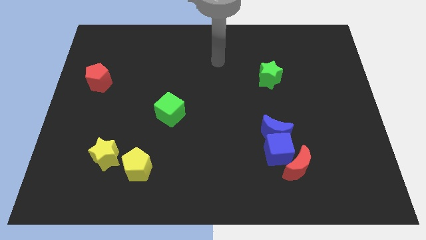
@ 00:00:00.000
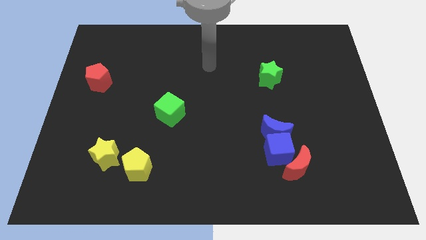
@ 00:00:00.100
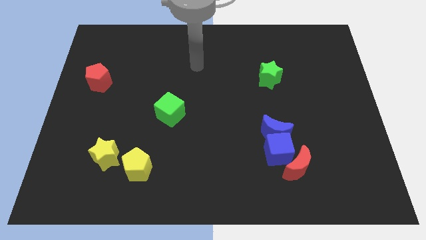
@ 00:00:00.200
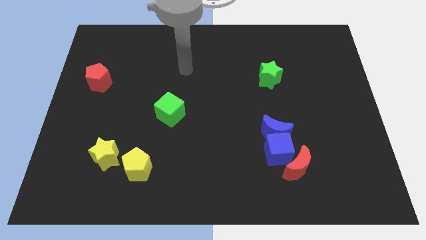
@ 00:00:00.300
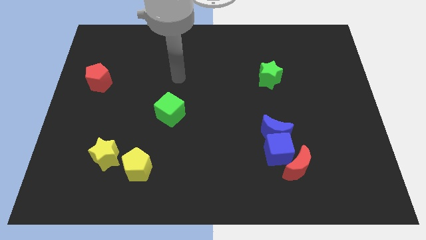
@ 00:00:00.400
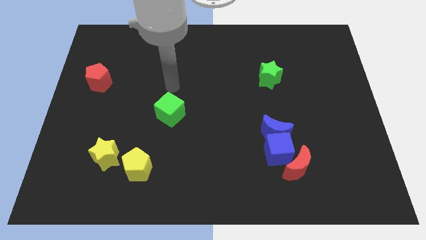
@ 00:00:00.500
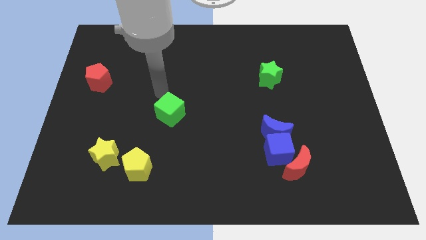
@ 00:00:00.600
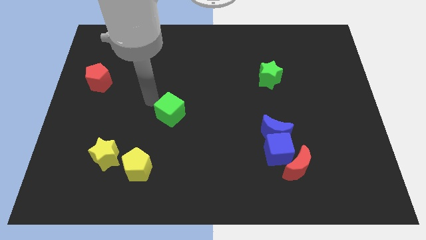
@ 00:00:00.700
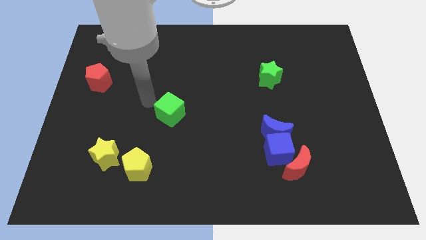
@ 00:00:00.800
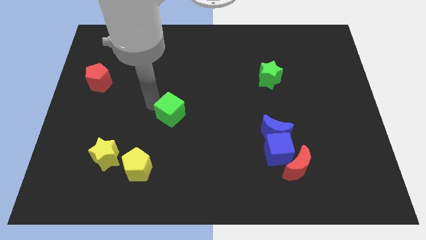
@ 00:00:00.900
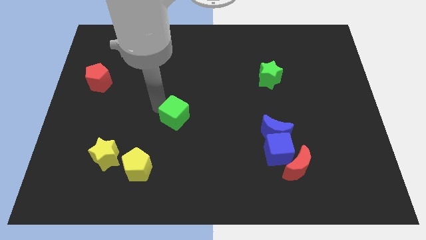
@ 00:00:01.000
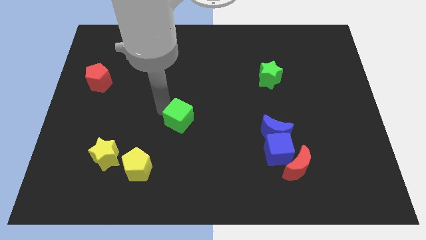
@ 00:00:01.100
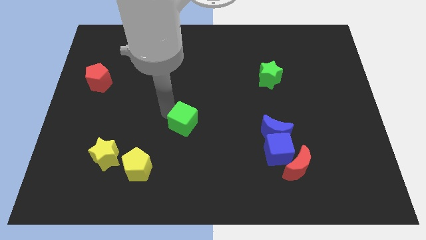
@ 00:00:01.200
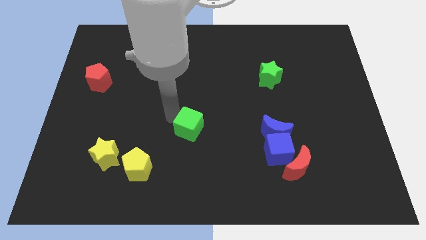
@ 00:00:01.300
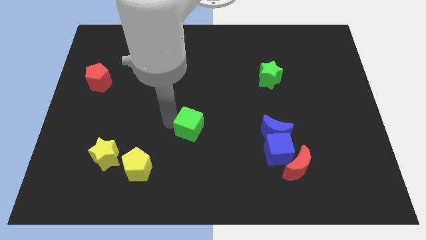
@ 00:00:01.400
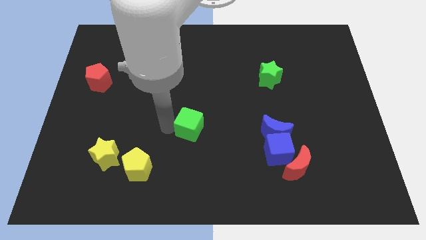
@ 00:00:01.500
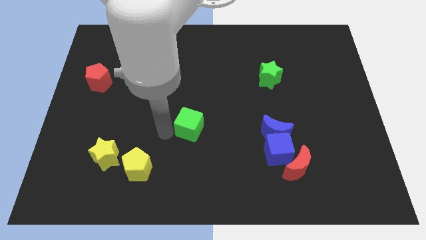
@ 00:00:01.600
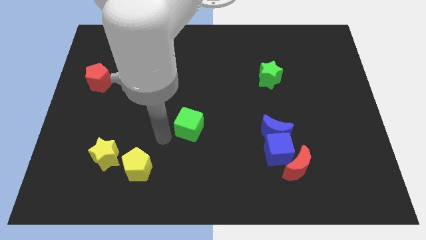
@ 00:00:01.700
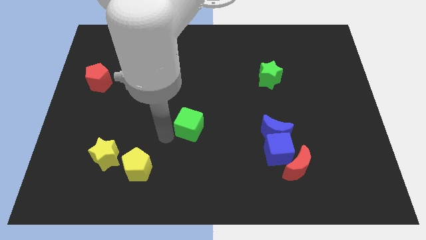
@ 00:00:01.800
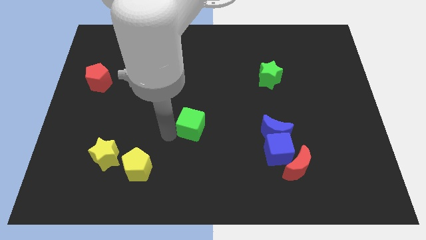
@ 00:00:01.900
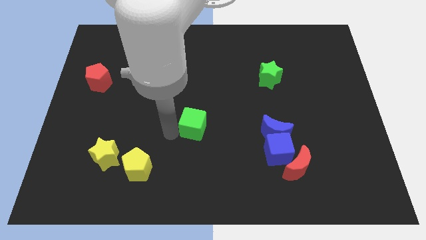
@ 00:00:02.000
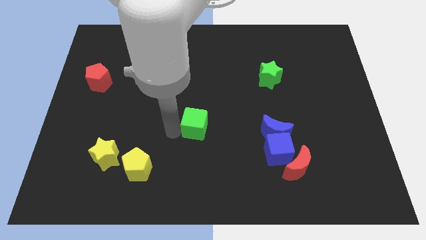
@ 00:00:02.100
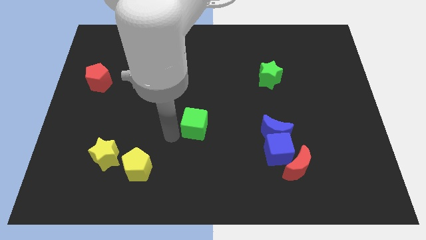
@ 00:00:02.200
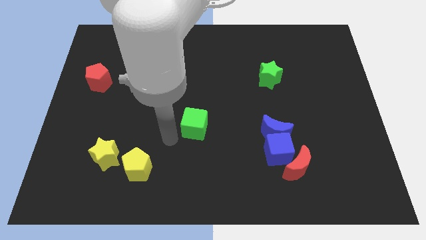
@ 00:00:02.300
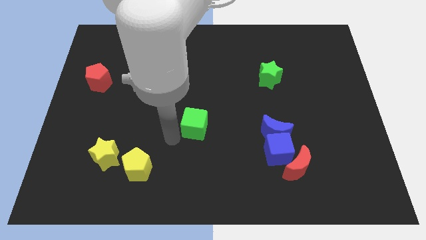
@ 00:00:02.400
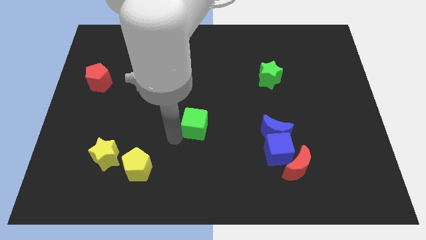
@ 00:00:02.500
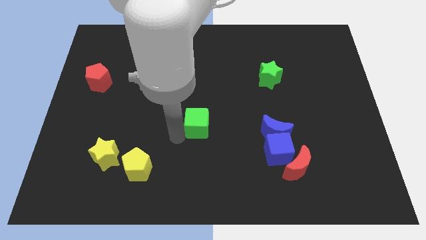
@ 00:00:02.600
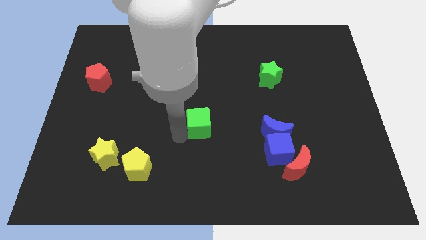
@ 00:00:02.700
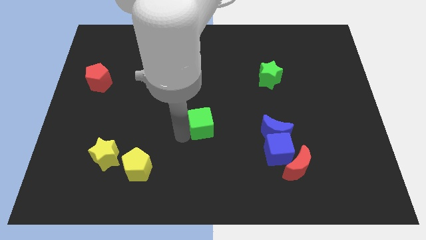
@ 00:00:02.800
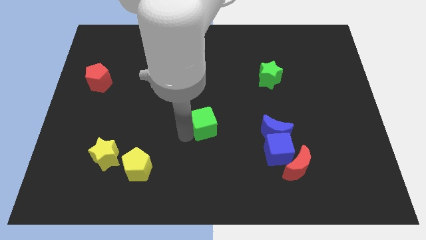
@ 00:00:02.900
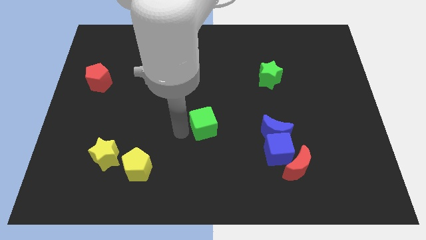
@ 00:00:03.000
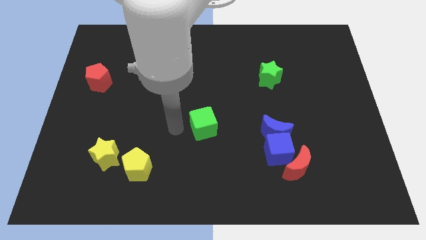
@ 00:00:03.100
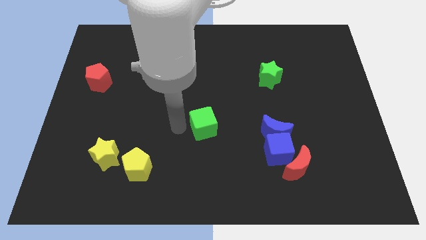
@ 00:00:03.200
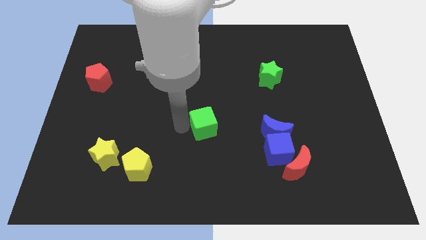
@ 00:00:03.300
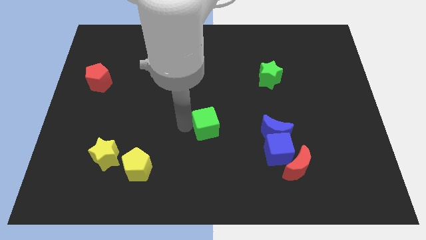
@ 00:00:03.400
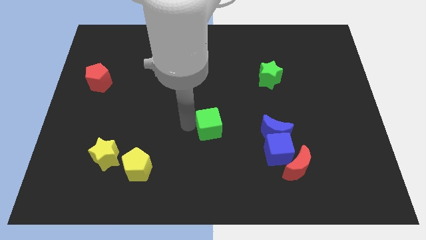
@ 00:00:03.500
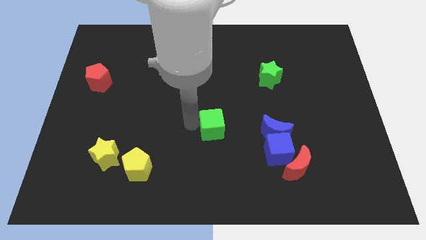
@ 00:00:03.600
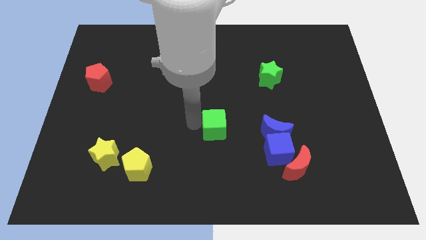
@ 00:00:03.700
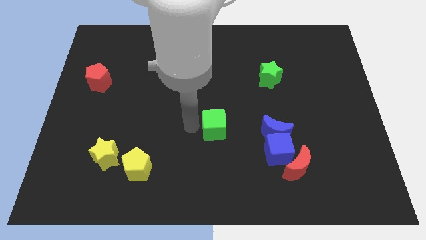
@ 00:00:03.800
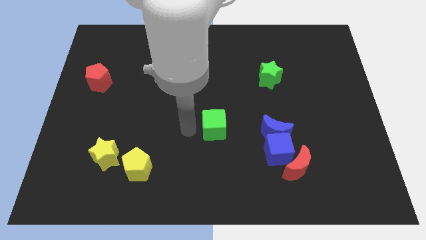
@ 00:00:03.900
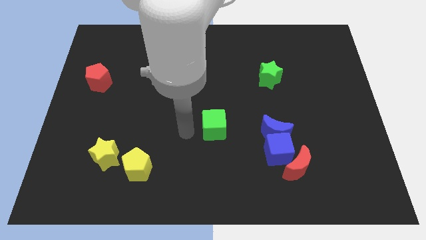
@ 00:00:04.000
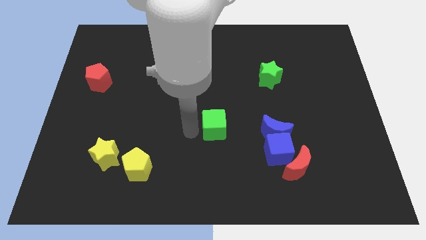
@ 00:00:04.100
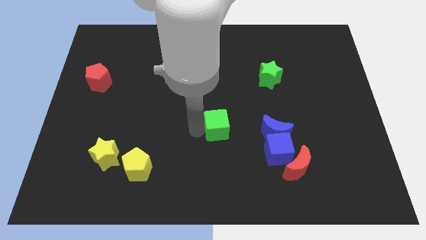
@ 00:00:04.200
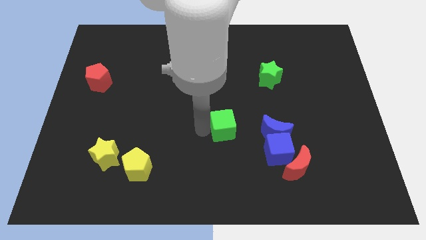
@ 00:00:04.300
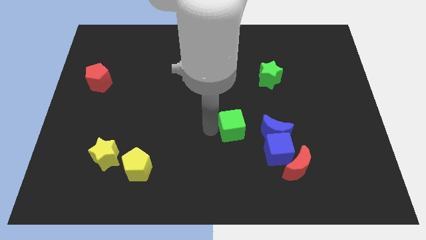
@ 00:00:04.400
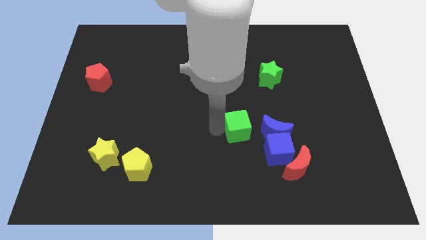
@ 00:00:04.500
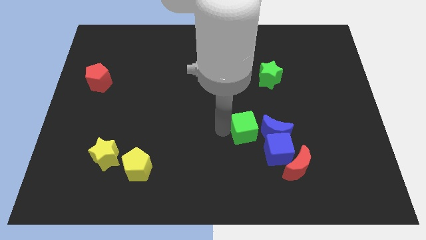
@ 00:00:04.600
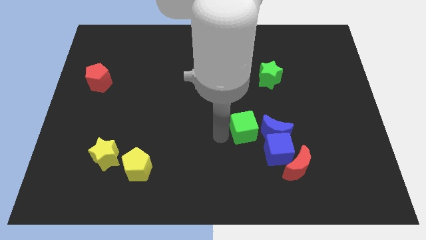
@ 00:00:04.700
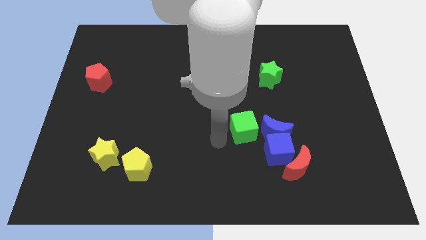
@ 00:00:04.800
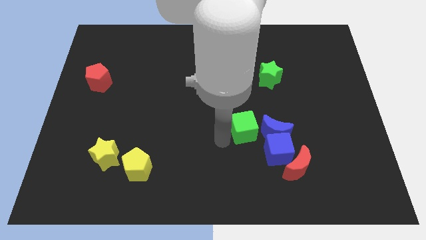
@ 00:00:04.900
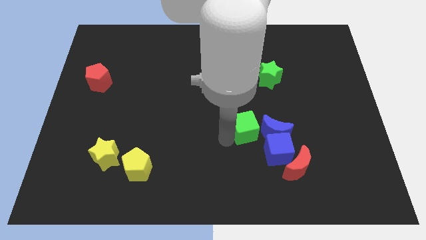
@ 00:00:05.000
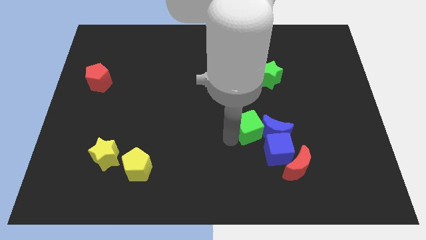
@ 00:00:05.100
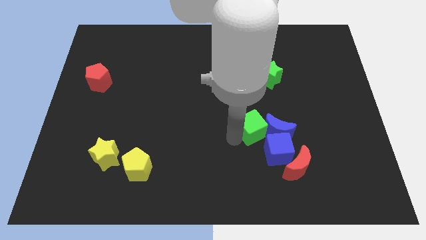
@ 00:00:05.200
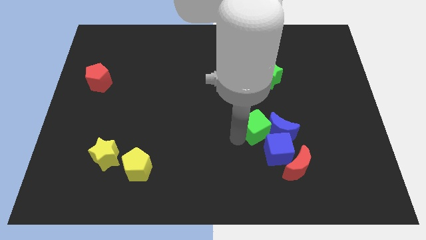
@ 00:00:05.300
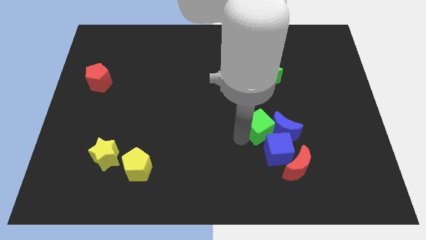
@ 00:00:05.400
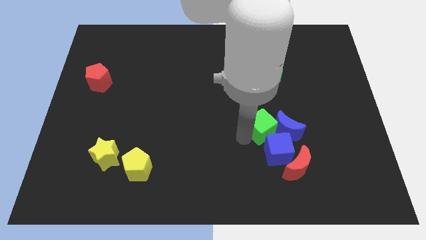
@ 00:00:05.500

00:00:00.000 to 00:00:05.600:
move the green cube right

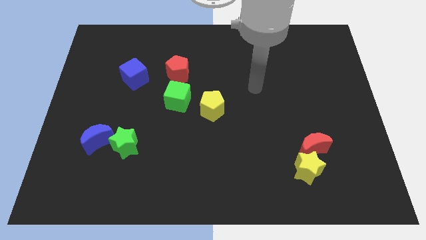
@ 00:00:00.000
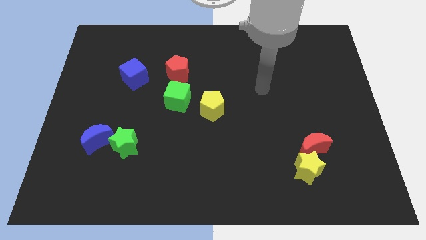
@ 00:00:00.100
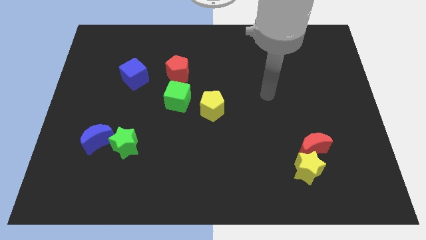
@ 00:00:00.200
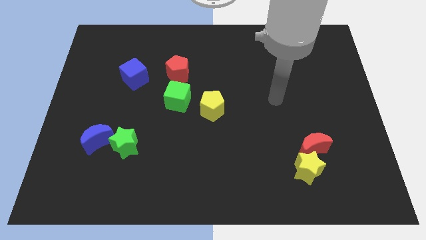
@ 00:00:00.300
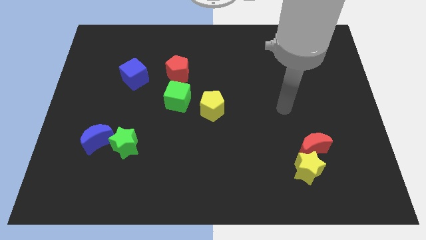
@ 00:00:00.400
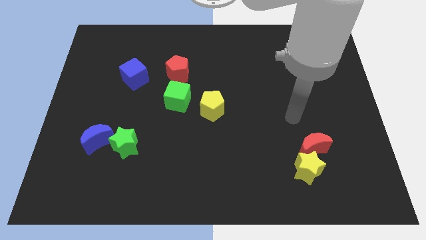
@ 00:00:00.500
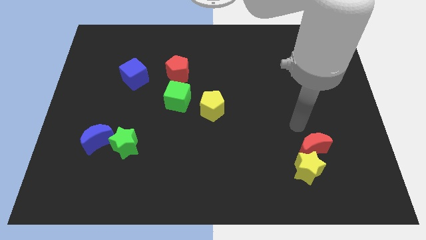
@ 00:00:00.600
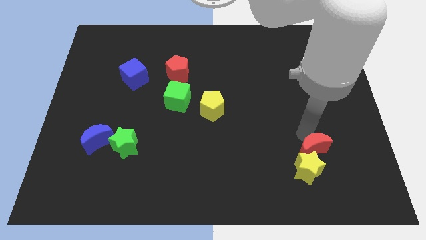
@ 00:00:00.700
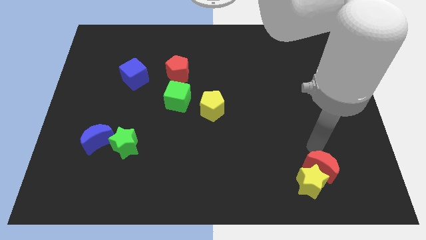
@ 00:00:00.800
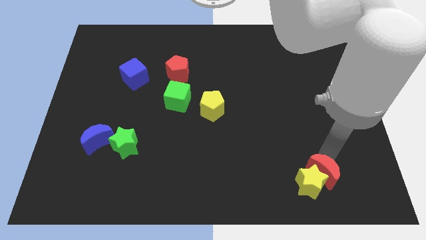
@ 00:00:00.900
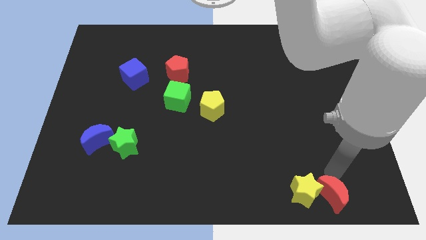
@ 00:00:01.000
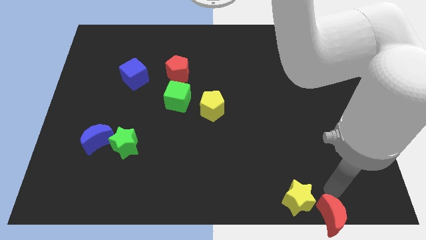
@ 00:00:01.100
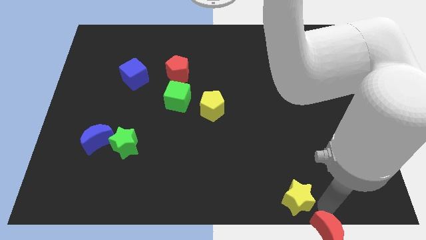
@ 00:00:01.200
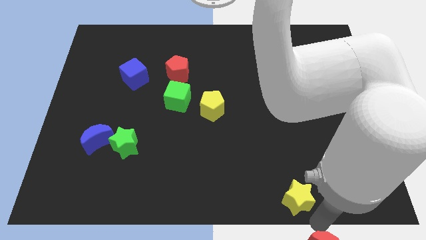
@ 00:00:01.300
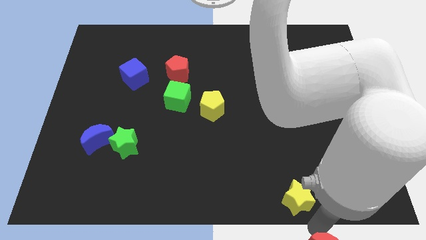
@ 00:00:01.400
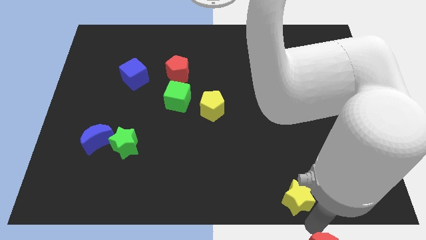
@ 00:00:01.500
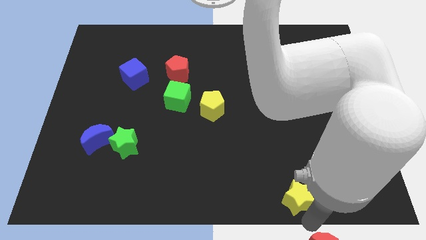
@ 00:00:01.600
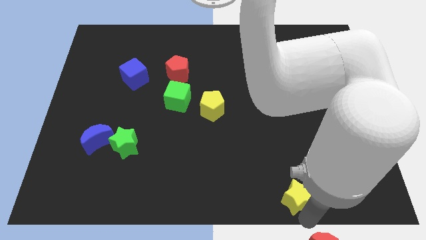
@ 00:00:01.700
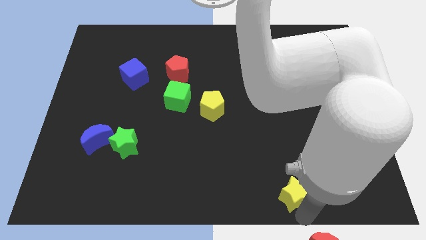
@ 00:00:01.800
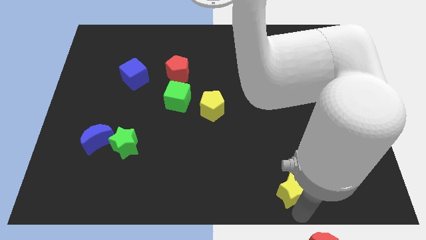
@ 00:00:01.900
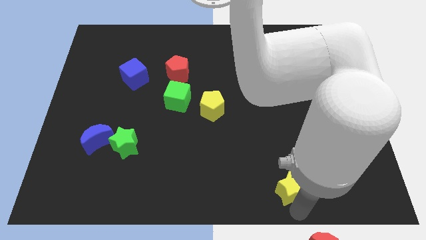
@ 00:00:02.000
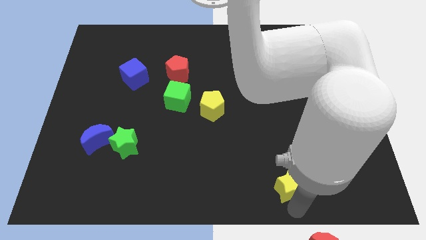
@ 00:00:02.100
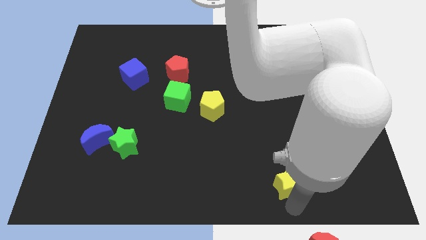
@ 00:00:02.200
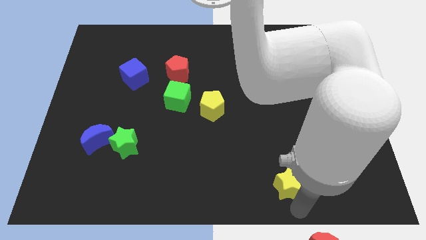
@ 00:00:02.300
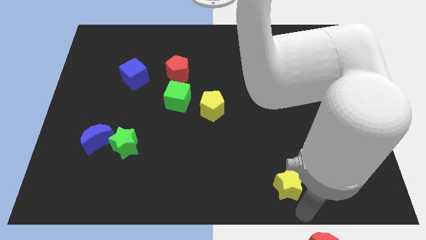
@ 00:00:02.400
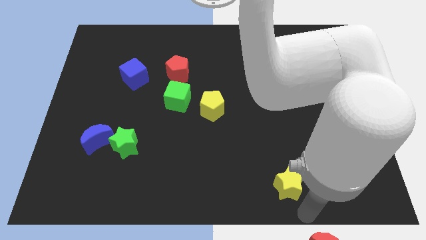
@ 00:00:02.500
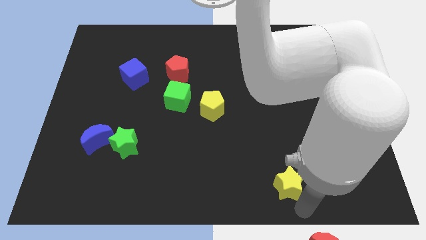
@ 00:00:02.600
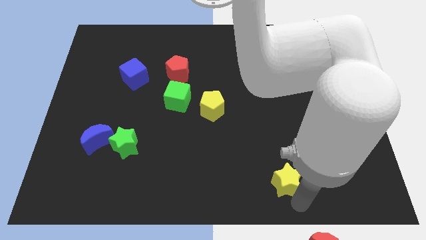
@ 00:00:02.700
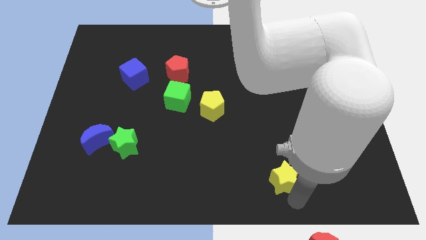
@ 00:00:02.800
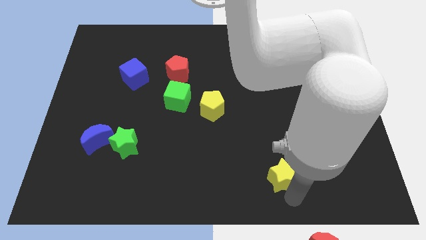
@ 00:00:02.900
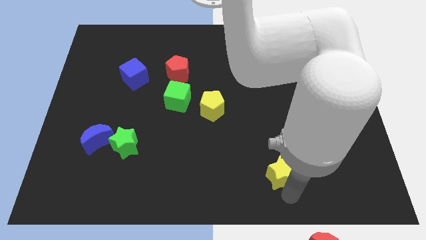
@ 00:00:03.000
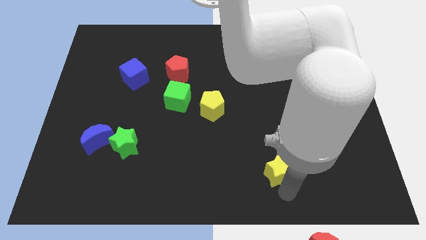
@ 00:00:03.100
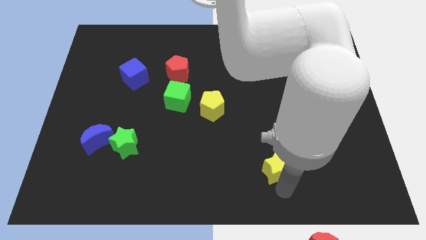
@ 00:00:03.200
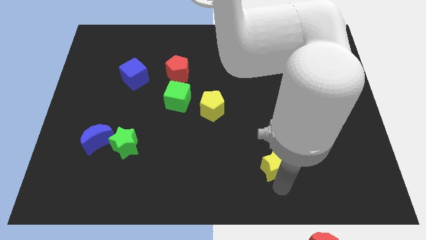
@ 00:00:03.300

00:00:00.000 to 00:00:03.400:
slightly move the yellow star to the left
